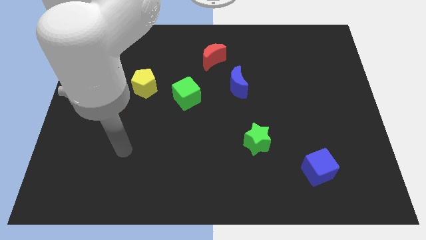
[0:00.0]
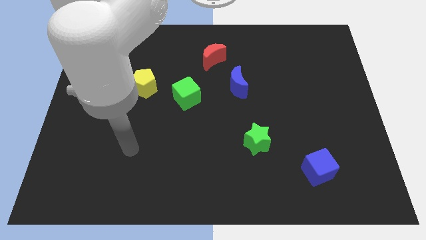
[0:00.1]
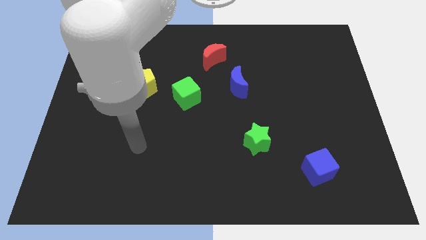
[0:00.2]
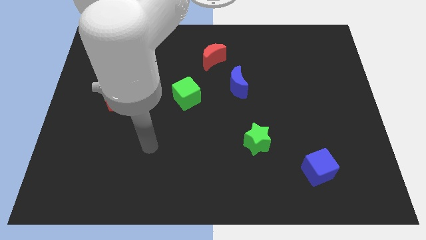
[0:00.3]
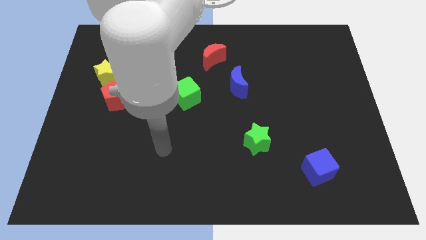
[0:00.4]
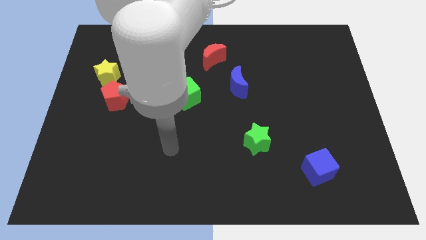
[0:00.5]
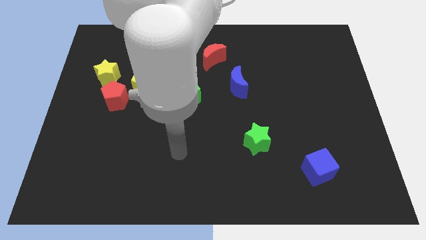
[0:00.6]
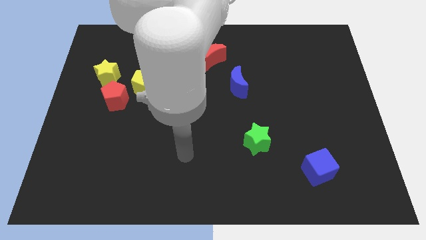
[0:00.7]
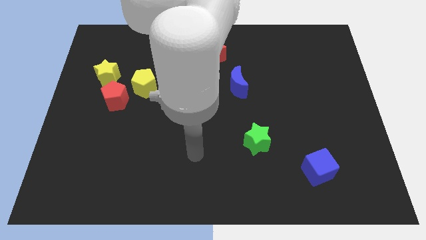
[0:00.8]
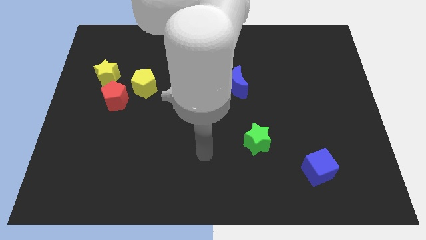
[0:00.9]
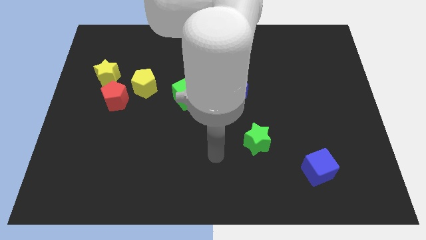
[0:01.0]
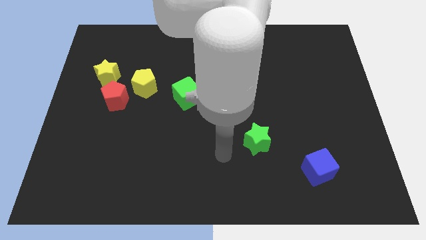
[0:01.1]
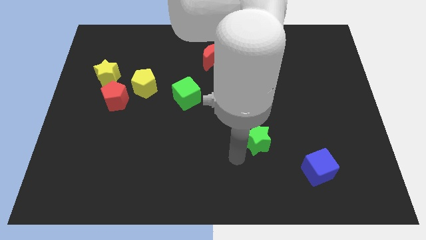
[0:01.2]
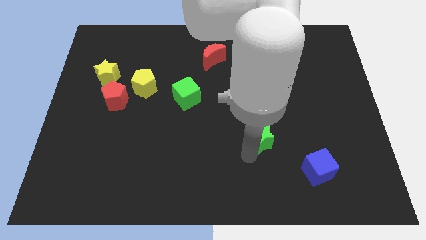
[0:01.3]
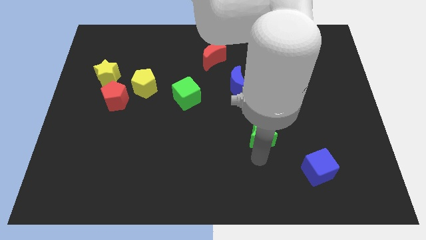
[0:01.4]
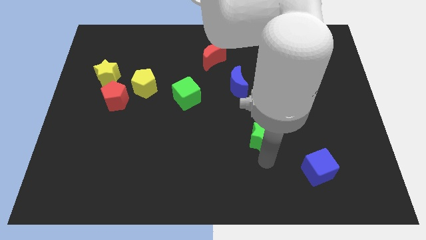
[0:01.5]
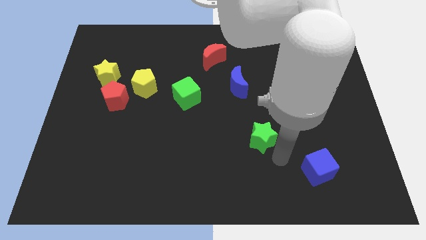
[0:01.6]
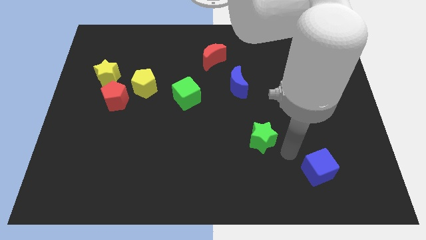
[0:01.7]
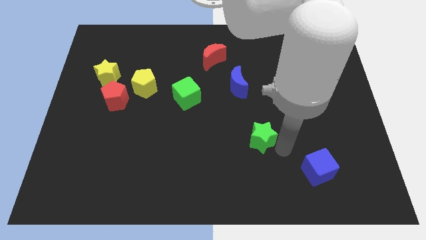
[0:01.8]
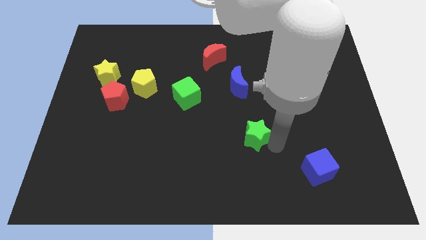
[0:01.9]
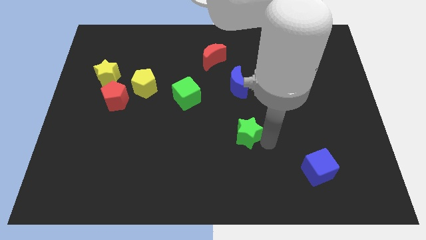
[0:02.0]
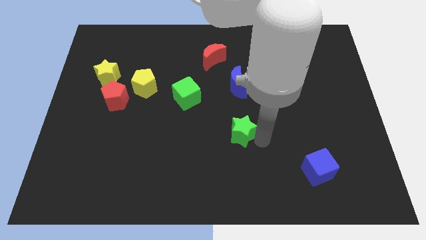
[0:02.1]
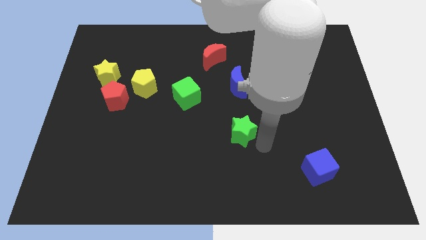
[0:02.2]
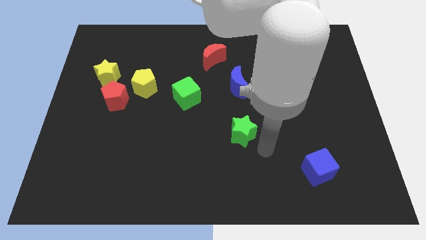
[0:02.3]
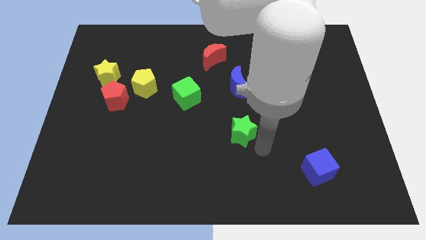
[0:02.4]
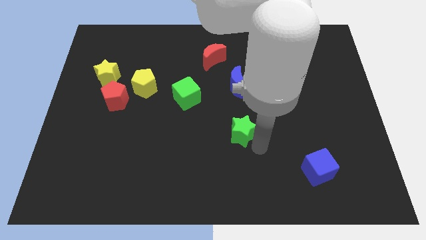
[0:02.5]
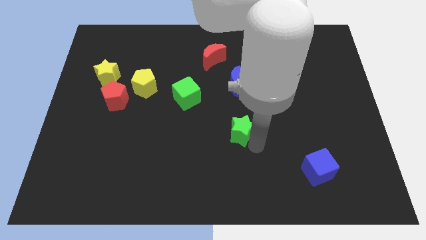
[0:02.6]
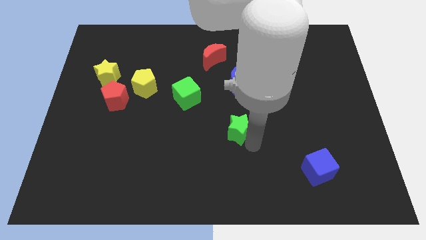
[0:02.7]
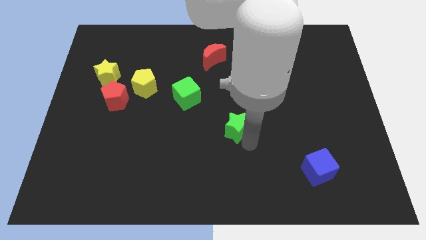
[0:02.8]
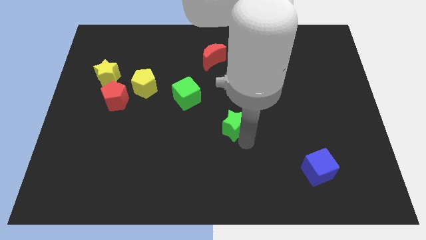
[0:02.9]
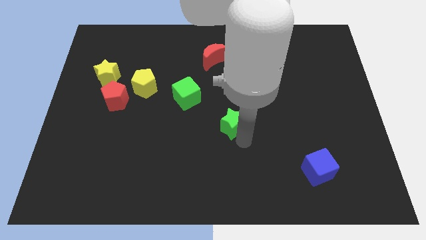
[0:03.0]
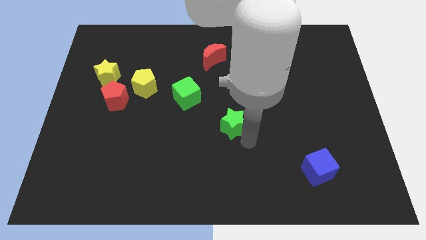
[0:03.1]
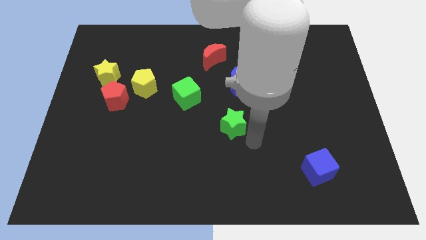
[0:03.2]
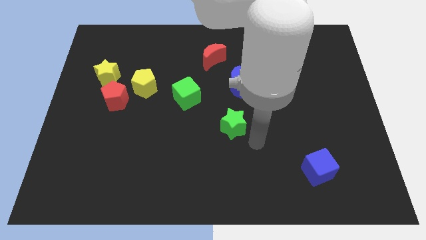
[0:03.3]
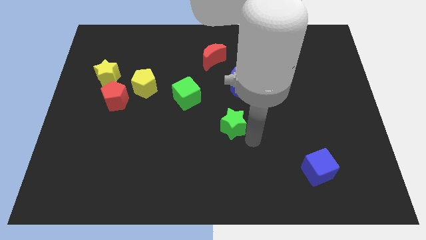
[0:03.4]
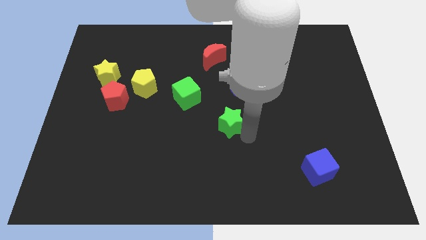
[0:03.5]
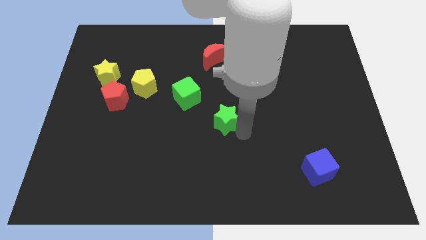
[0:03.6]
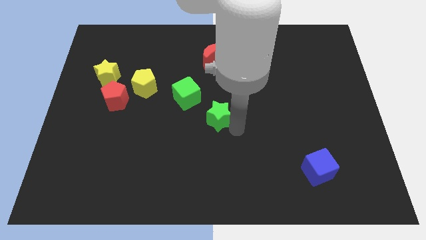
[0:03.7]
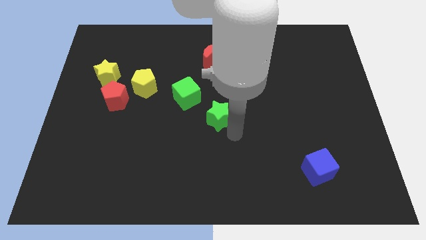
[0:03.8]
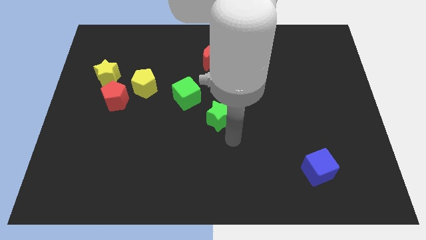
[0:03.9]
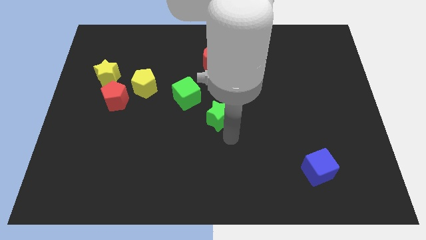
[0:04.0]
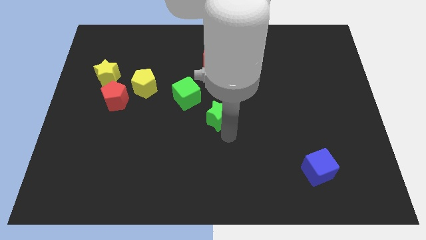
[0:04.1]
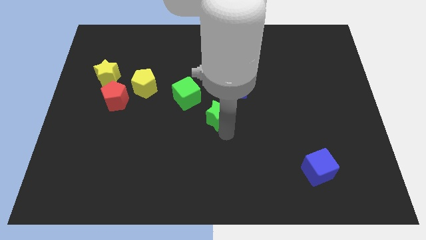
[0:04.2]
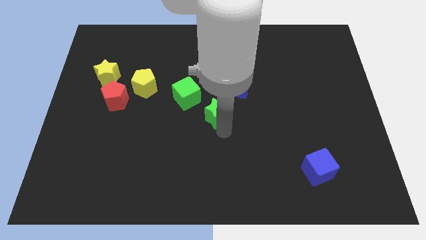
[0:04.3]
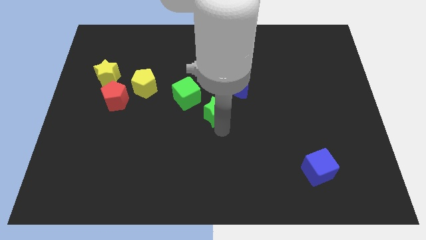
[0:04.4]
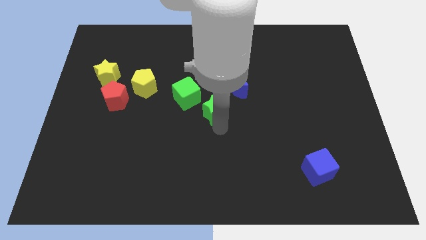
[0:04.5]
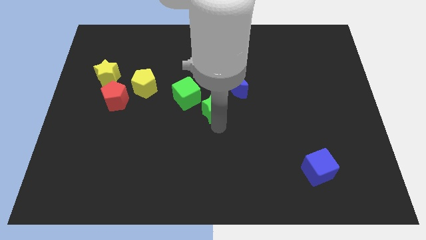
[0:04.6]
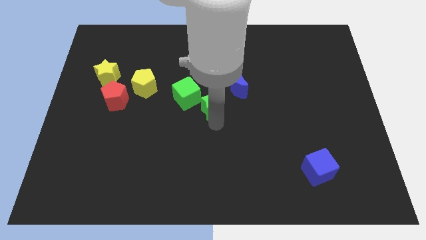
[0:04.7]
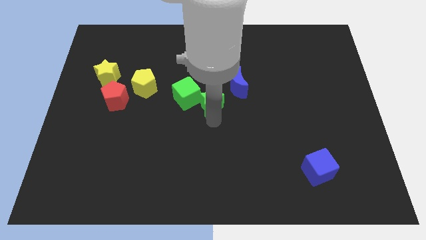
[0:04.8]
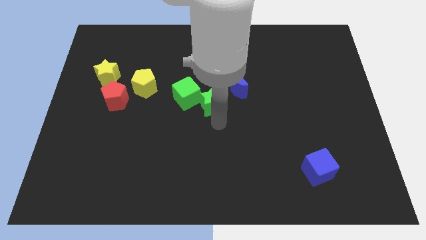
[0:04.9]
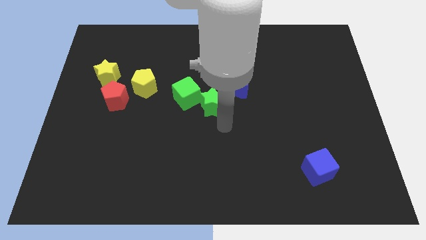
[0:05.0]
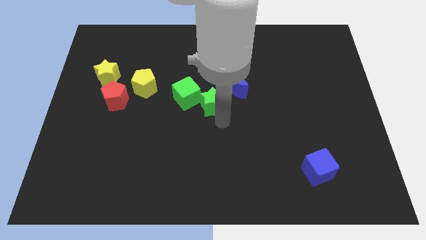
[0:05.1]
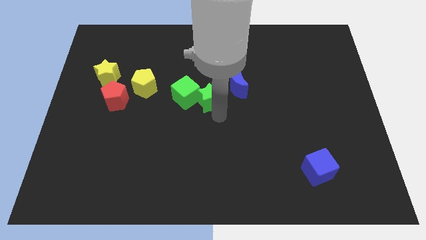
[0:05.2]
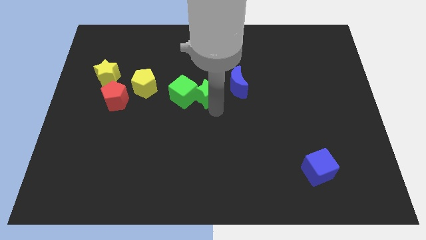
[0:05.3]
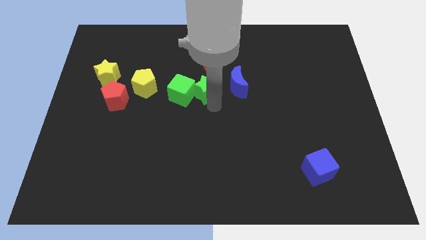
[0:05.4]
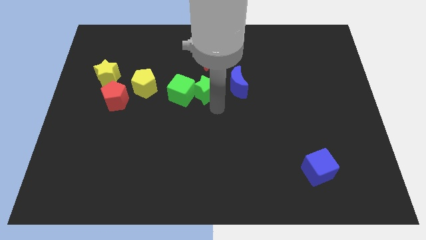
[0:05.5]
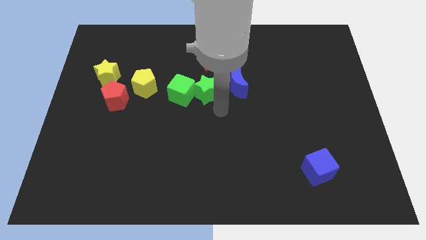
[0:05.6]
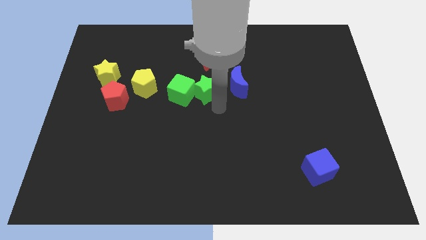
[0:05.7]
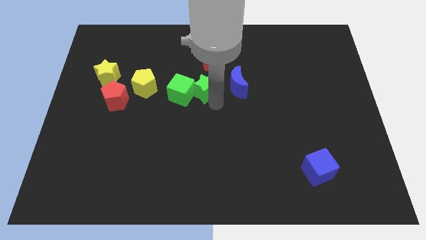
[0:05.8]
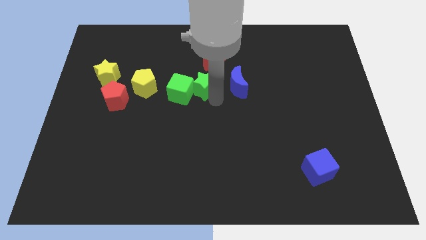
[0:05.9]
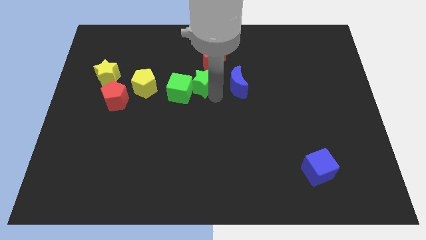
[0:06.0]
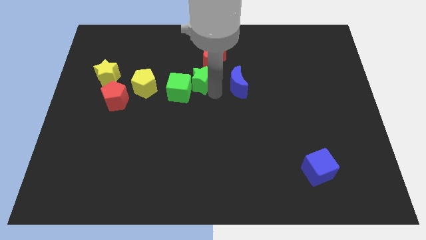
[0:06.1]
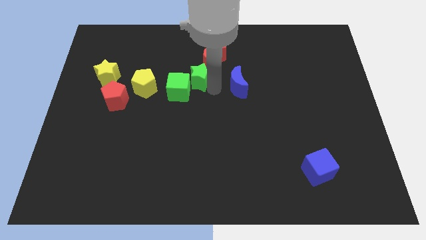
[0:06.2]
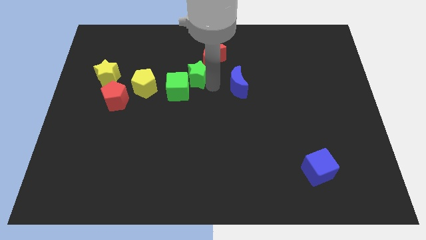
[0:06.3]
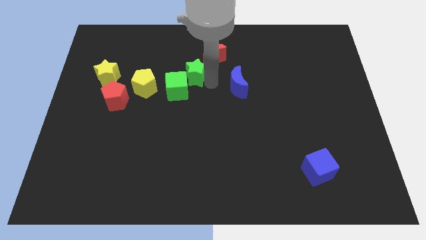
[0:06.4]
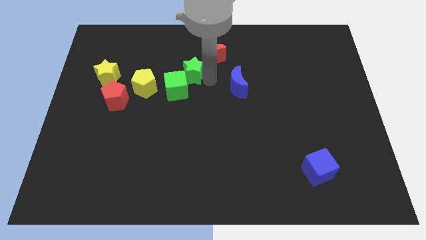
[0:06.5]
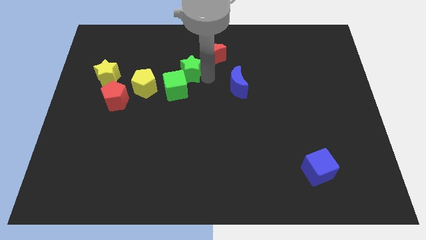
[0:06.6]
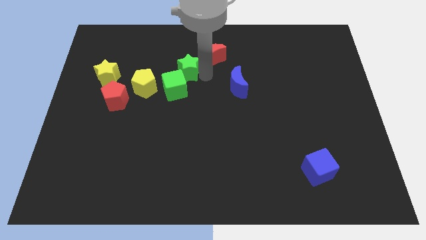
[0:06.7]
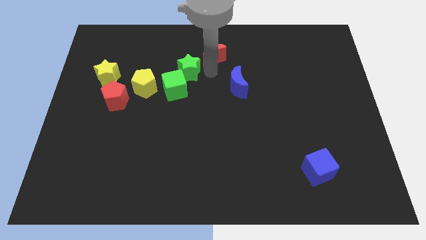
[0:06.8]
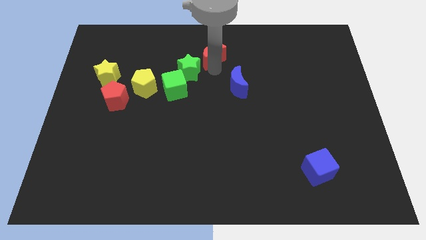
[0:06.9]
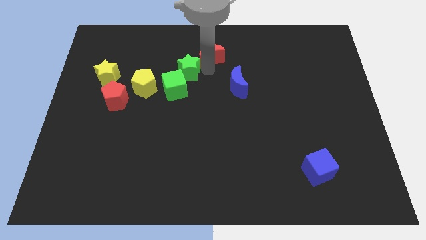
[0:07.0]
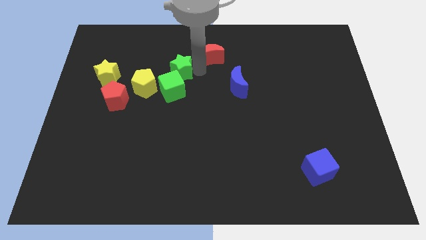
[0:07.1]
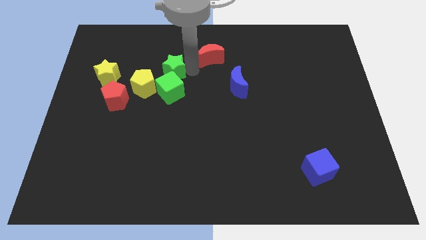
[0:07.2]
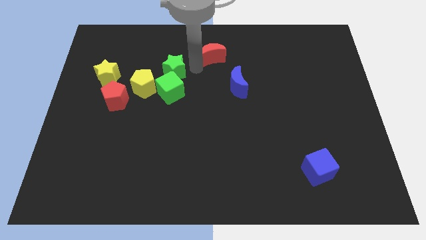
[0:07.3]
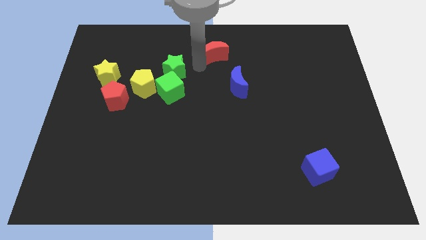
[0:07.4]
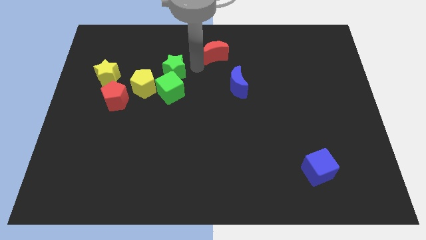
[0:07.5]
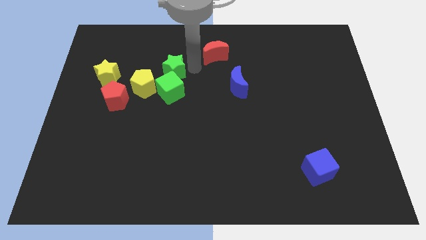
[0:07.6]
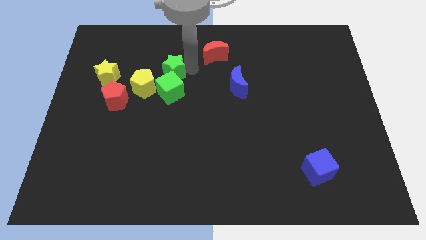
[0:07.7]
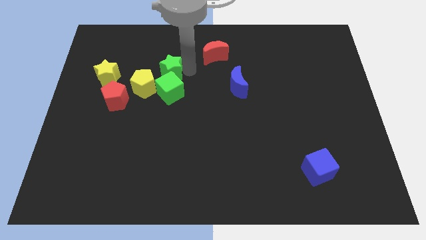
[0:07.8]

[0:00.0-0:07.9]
move the green star to the top left of the green cube
